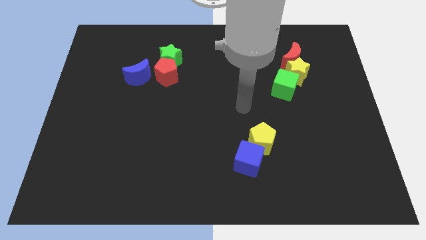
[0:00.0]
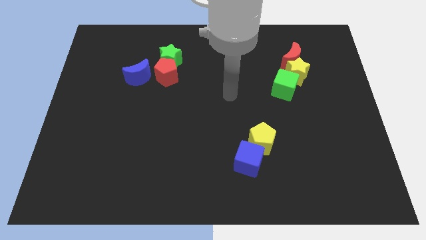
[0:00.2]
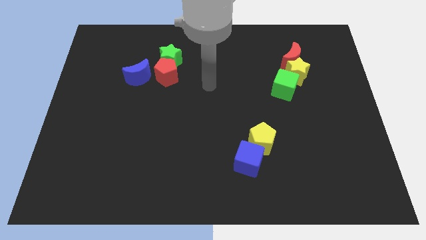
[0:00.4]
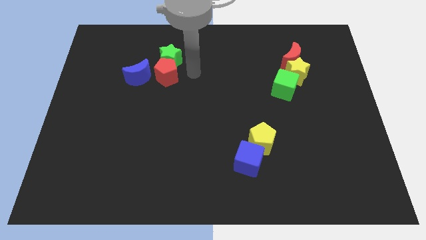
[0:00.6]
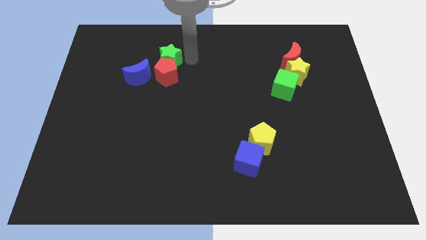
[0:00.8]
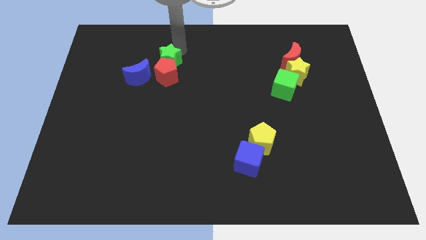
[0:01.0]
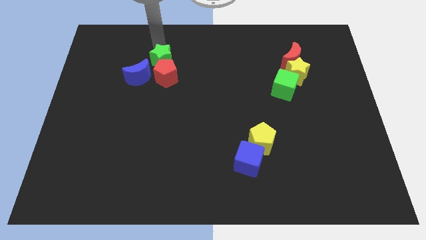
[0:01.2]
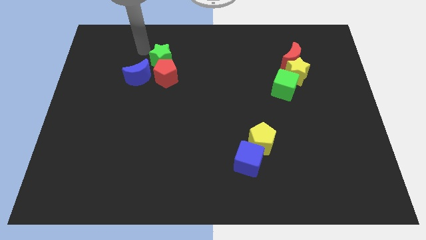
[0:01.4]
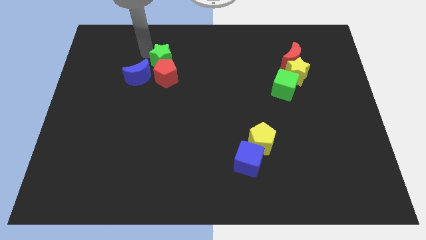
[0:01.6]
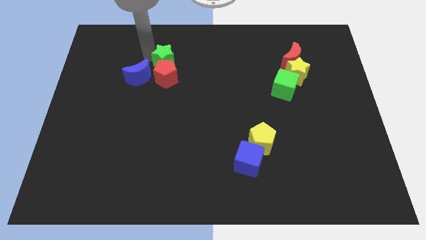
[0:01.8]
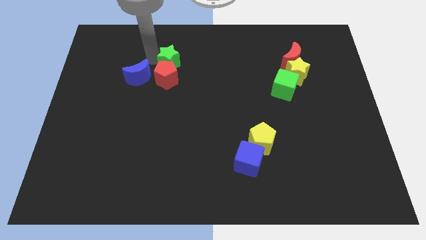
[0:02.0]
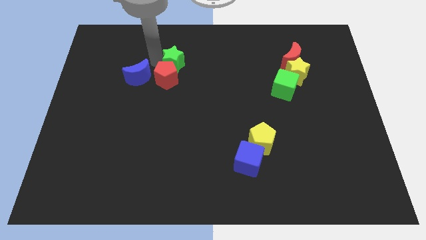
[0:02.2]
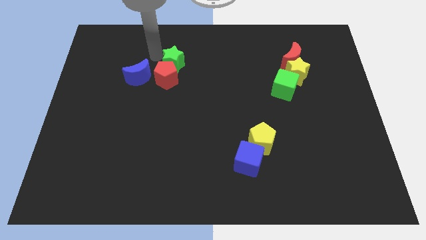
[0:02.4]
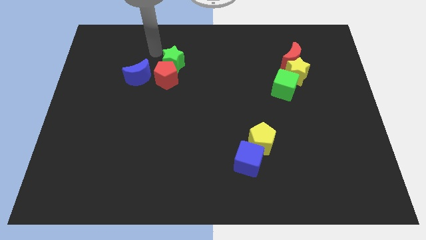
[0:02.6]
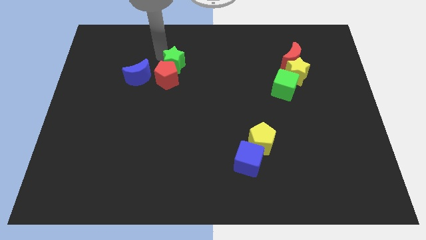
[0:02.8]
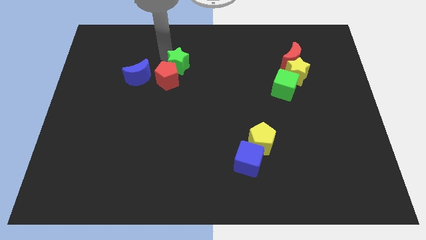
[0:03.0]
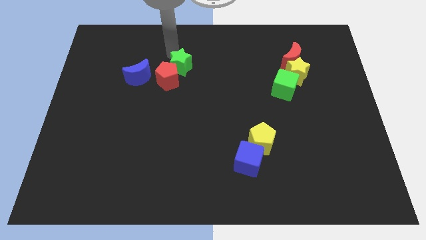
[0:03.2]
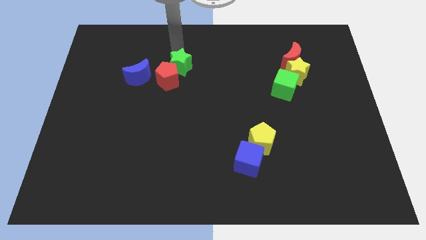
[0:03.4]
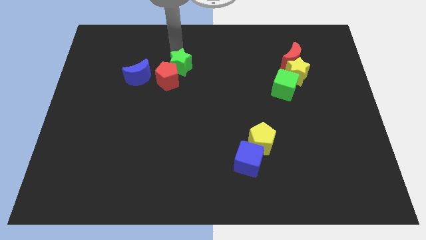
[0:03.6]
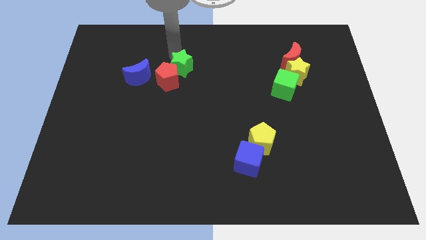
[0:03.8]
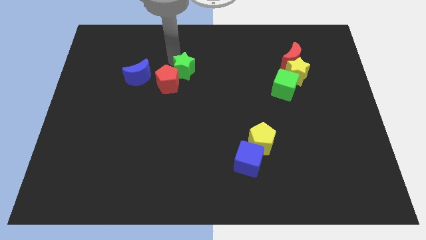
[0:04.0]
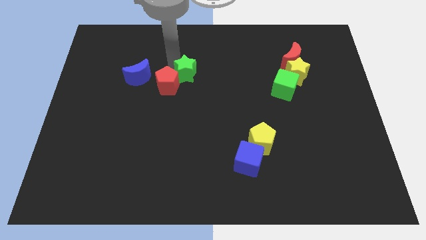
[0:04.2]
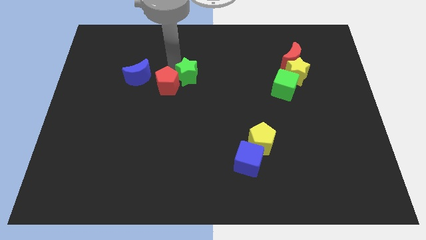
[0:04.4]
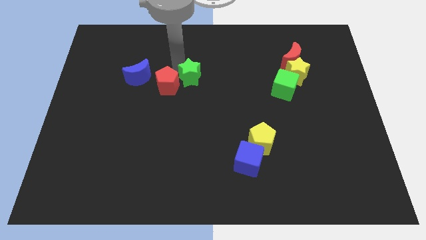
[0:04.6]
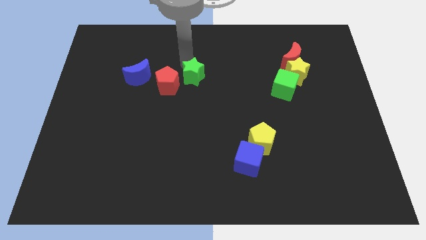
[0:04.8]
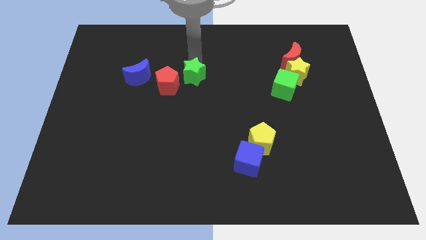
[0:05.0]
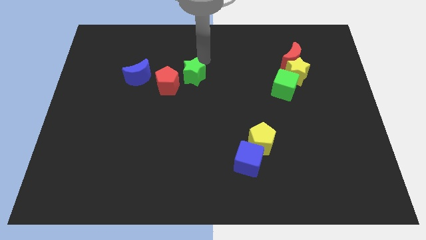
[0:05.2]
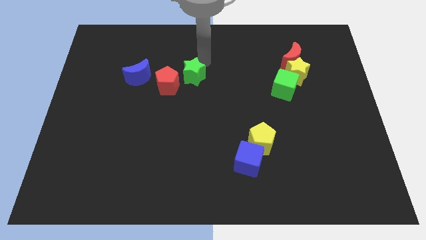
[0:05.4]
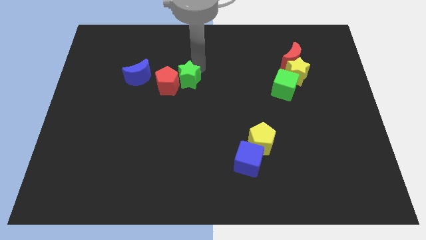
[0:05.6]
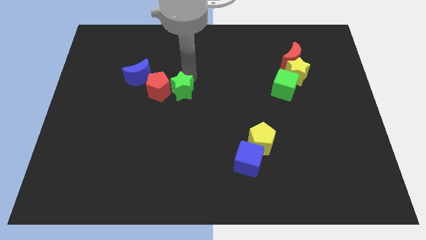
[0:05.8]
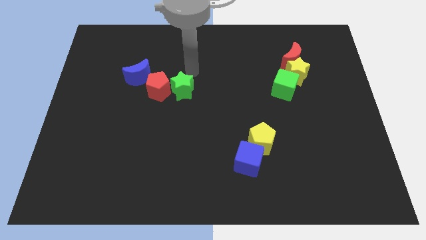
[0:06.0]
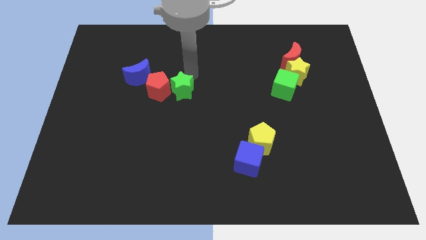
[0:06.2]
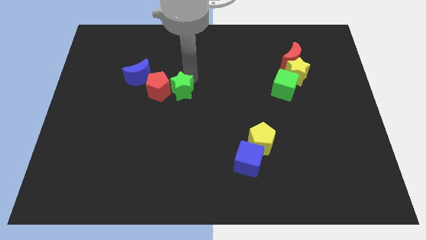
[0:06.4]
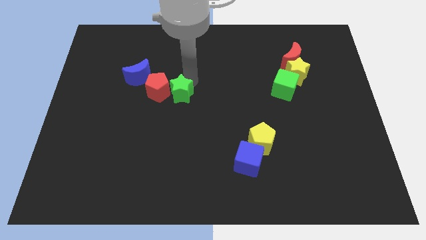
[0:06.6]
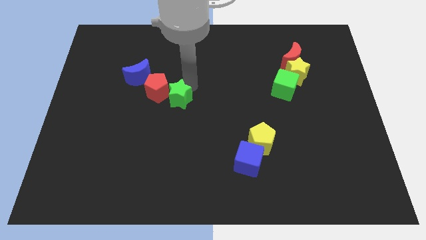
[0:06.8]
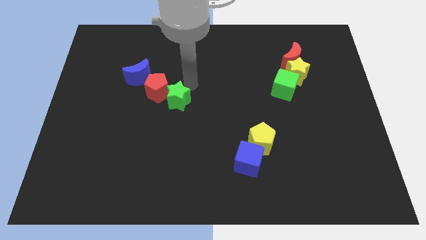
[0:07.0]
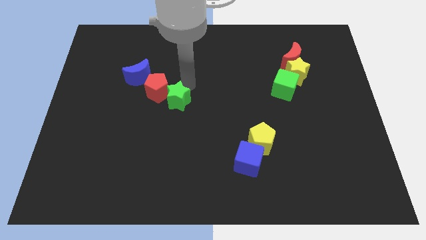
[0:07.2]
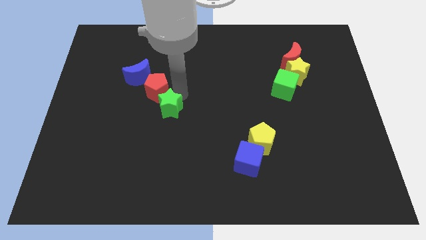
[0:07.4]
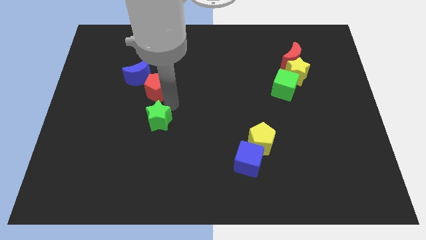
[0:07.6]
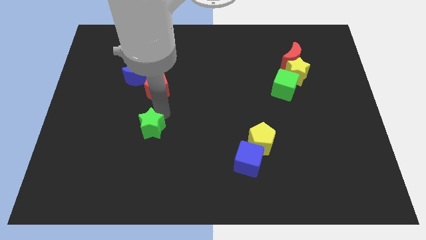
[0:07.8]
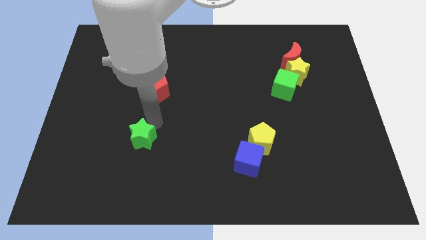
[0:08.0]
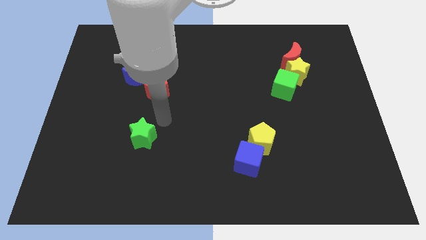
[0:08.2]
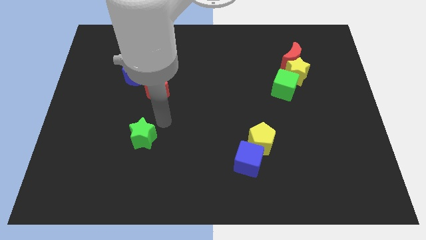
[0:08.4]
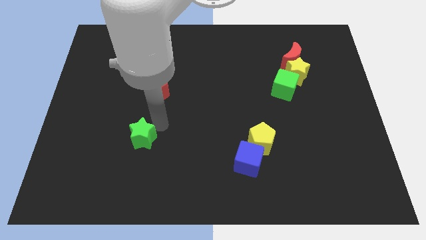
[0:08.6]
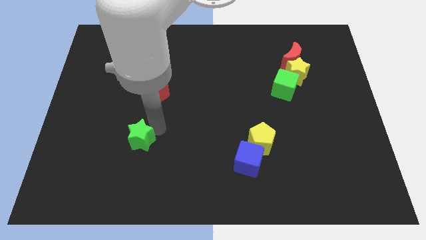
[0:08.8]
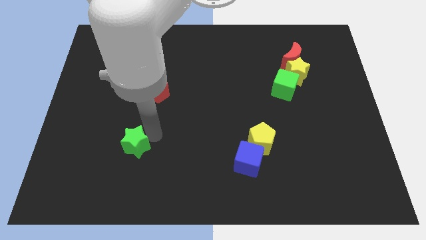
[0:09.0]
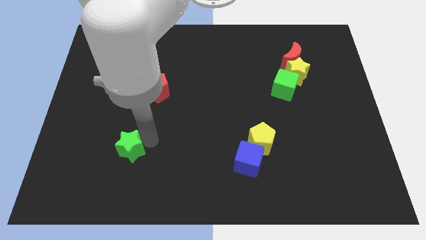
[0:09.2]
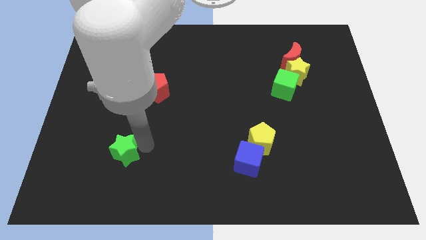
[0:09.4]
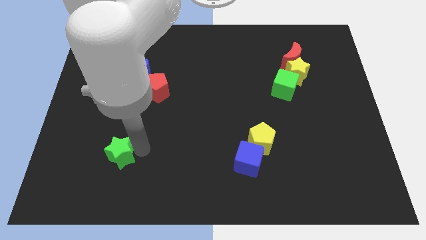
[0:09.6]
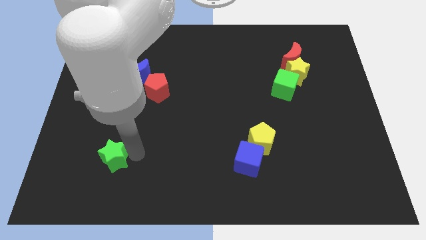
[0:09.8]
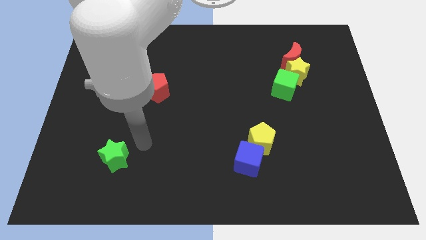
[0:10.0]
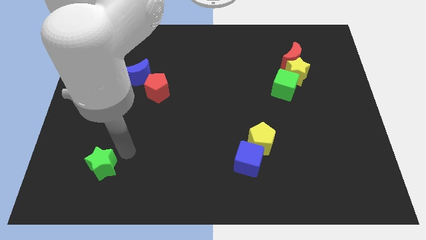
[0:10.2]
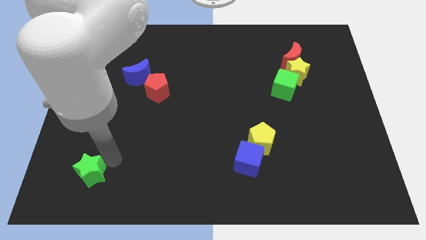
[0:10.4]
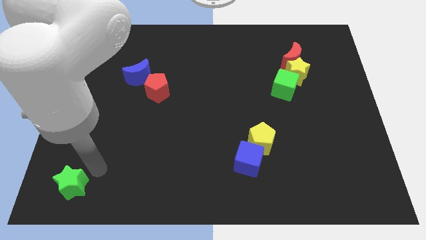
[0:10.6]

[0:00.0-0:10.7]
slide the green star to the bottom left of the board

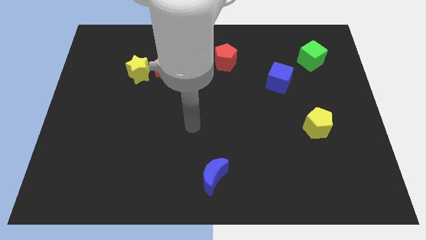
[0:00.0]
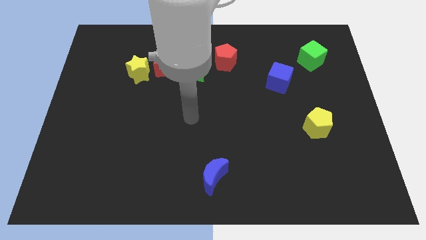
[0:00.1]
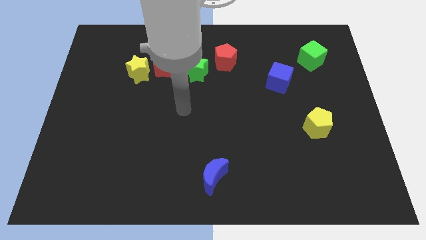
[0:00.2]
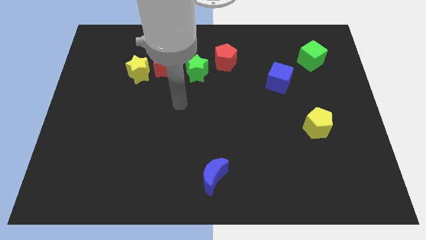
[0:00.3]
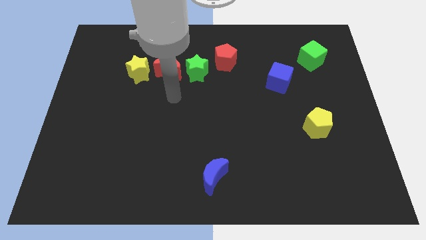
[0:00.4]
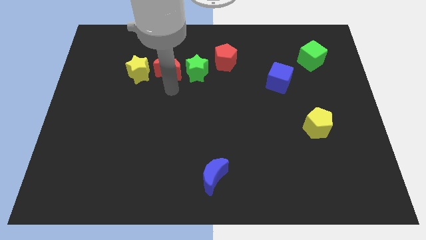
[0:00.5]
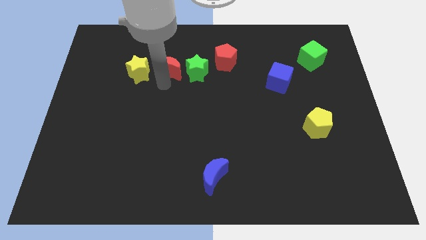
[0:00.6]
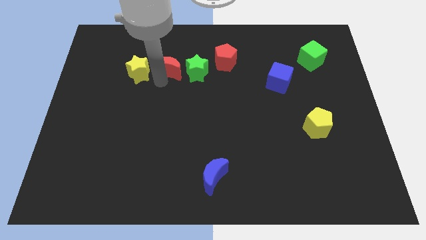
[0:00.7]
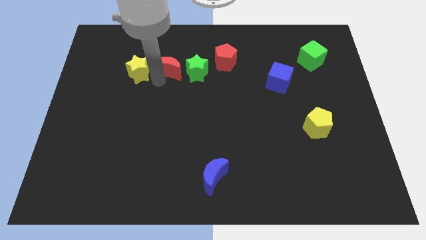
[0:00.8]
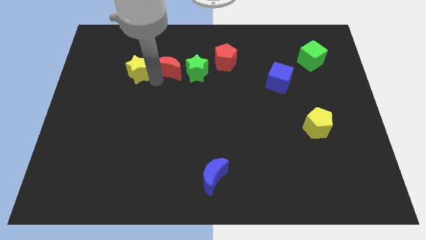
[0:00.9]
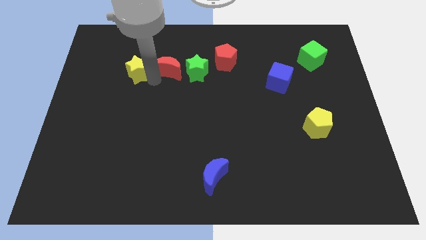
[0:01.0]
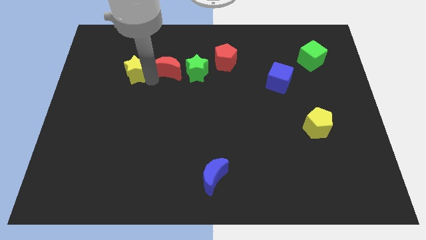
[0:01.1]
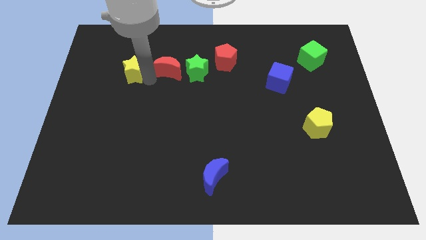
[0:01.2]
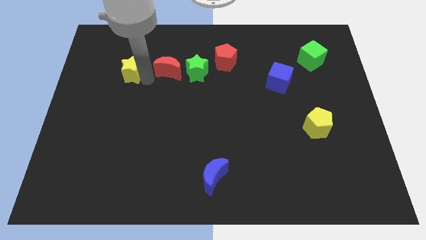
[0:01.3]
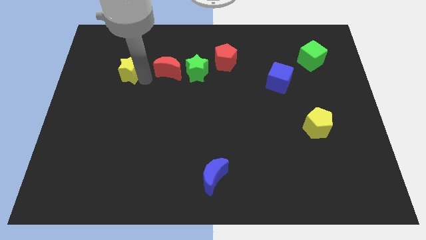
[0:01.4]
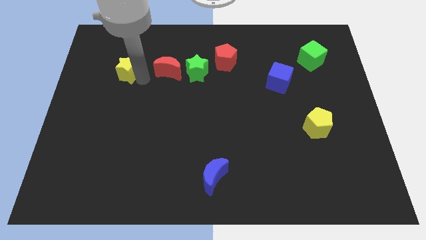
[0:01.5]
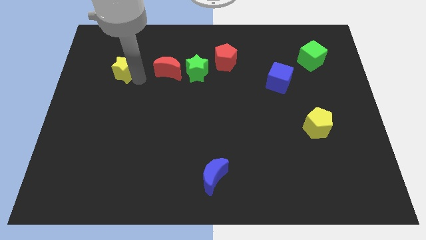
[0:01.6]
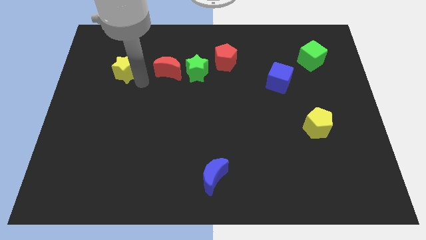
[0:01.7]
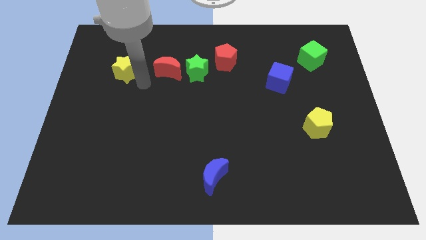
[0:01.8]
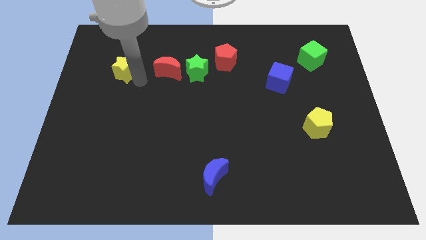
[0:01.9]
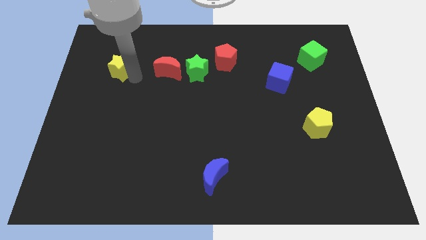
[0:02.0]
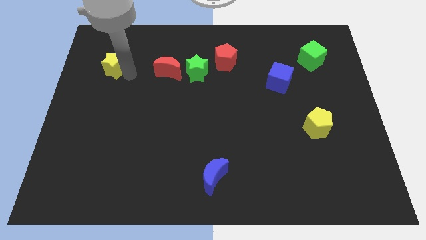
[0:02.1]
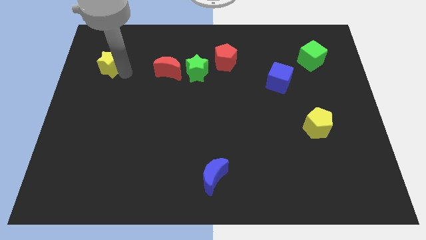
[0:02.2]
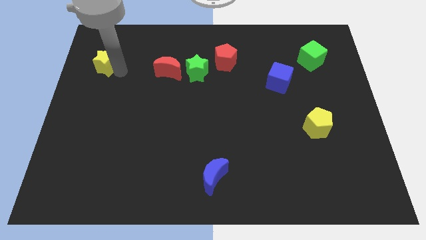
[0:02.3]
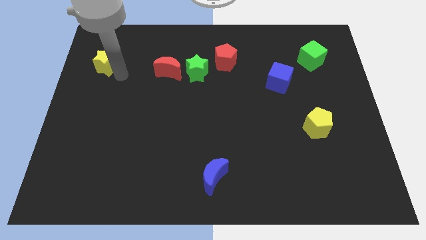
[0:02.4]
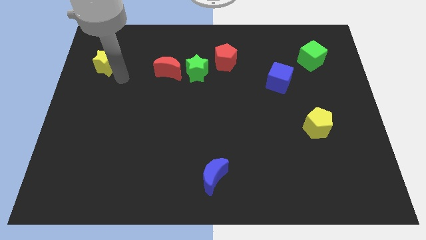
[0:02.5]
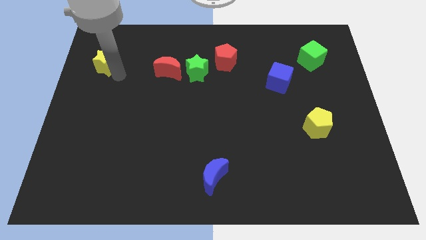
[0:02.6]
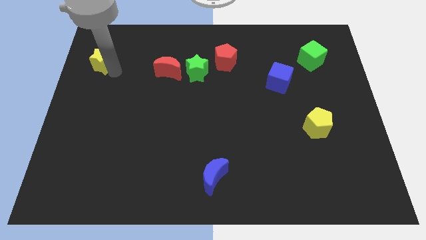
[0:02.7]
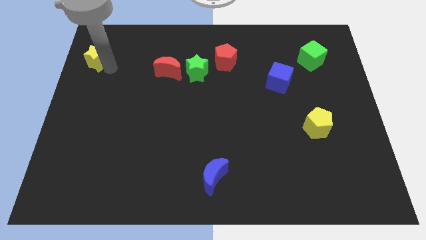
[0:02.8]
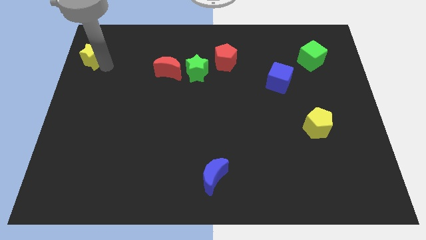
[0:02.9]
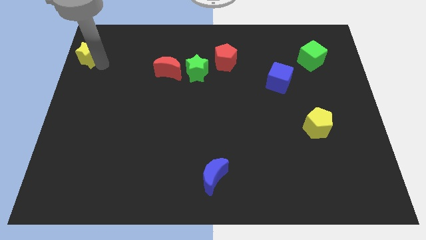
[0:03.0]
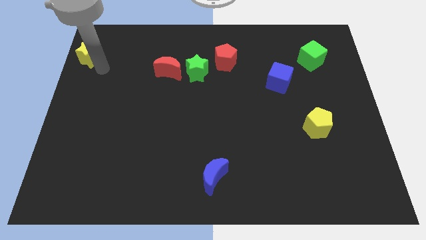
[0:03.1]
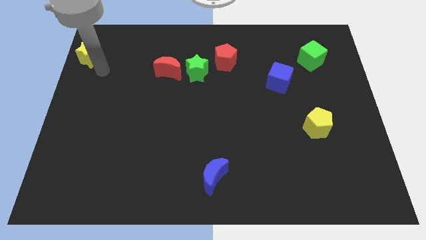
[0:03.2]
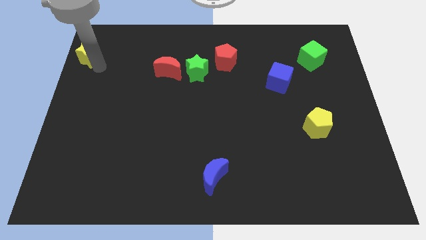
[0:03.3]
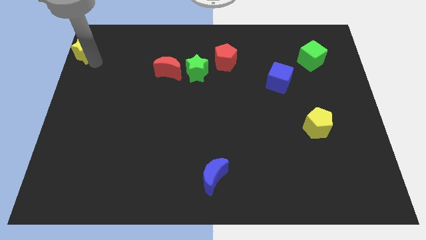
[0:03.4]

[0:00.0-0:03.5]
put the yellow star to the top left of the board
